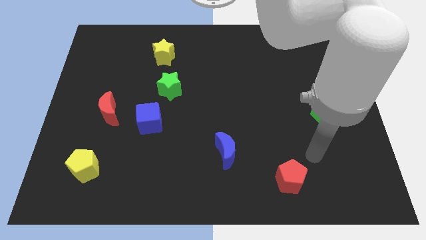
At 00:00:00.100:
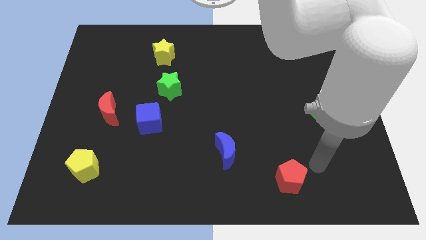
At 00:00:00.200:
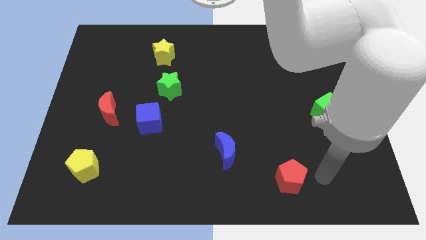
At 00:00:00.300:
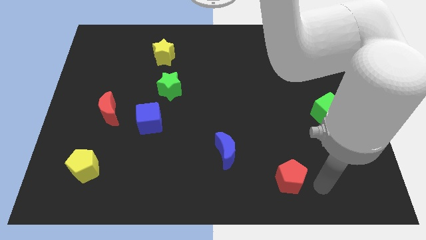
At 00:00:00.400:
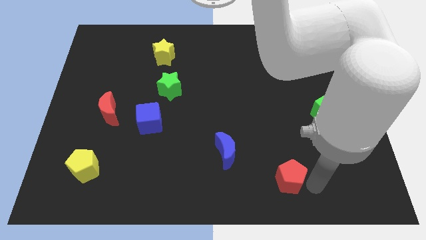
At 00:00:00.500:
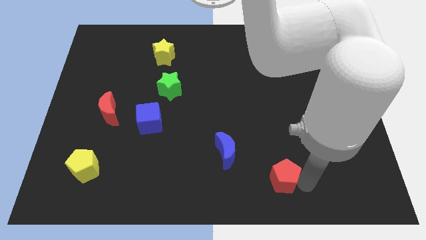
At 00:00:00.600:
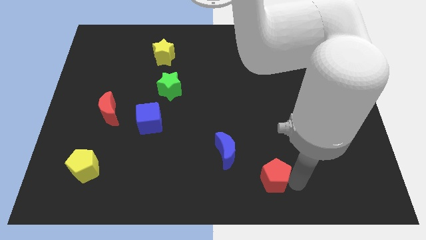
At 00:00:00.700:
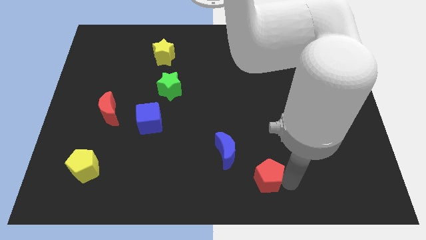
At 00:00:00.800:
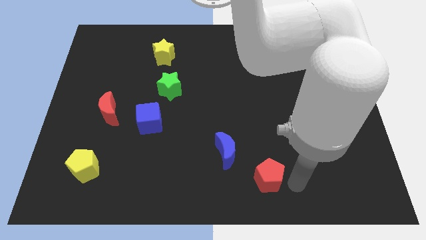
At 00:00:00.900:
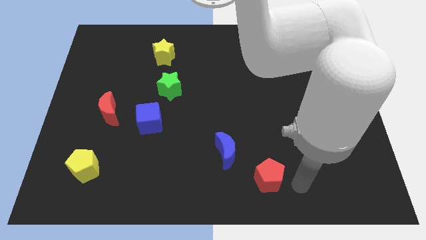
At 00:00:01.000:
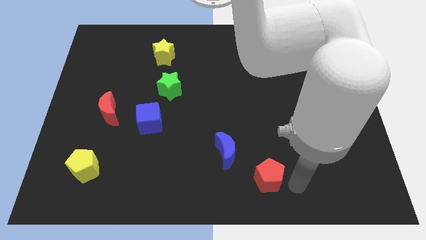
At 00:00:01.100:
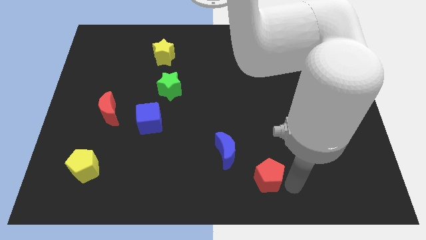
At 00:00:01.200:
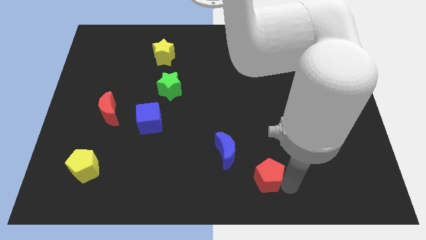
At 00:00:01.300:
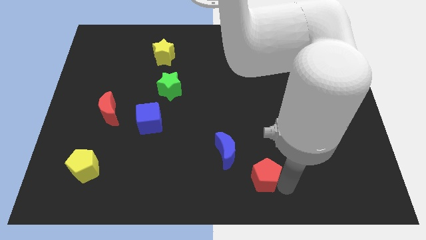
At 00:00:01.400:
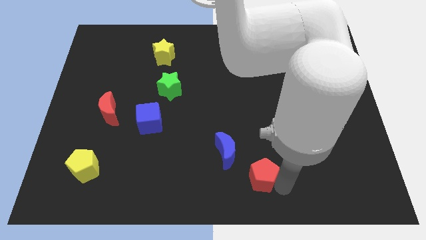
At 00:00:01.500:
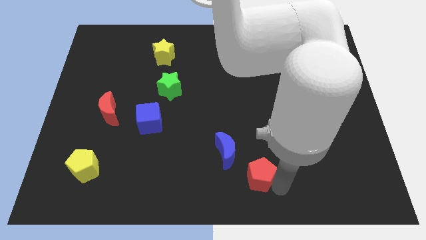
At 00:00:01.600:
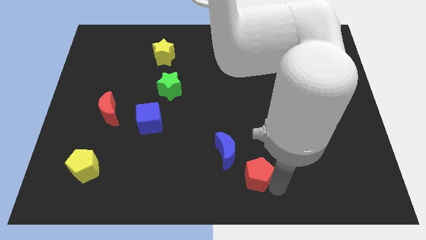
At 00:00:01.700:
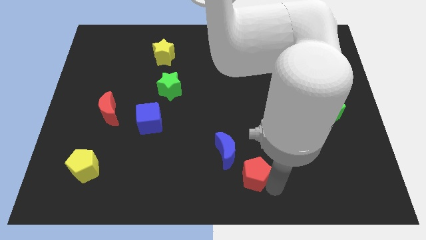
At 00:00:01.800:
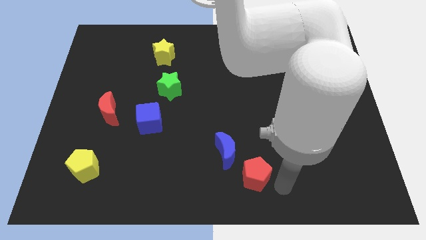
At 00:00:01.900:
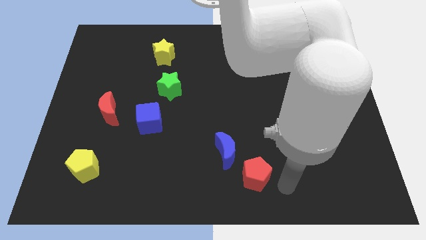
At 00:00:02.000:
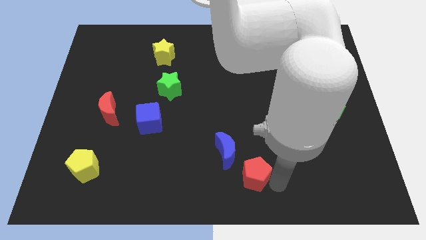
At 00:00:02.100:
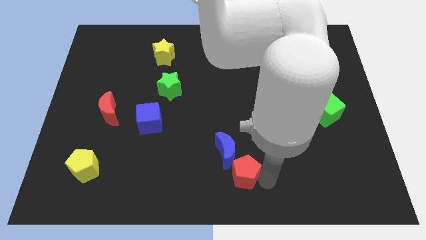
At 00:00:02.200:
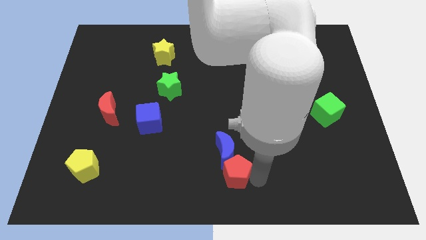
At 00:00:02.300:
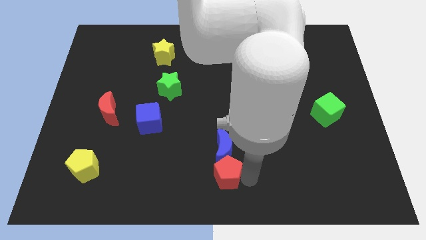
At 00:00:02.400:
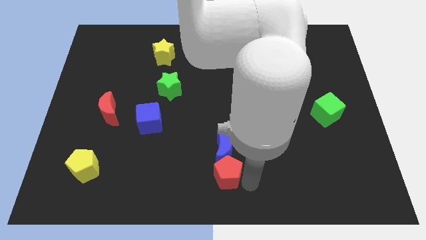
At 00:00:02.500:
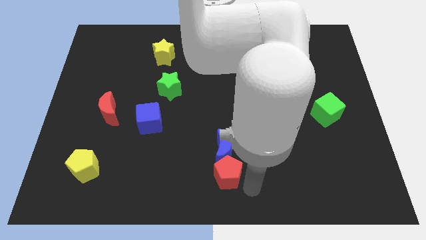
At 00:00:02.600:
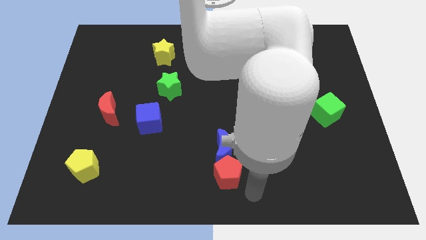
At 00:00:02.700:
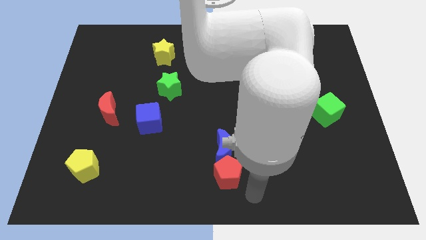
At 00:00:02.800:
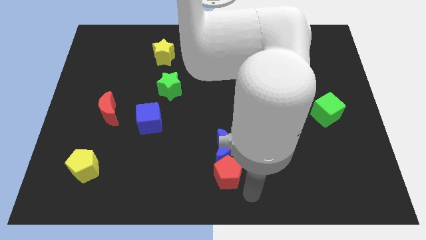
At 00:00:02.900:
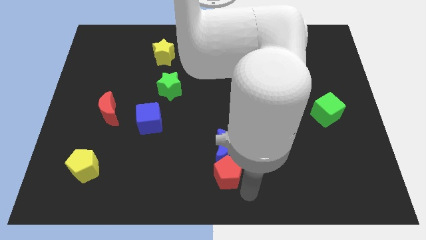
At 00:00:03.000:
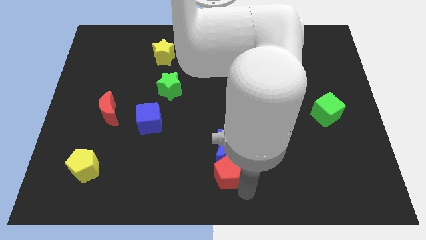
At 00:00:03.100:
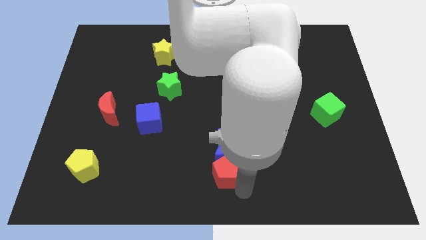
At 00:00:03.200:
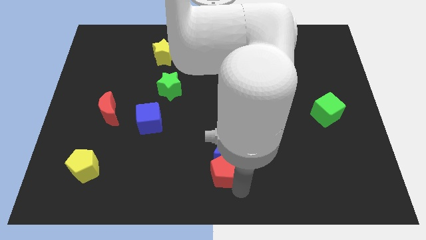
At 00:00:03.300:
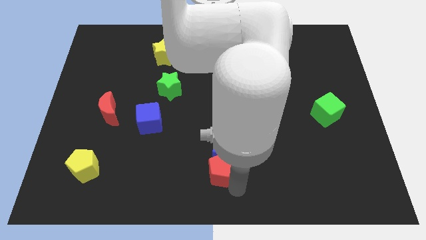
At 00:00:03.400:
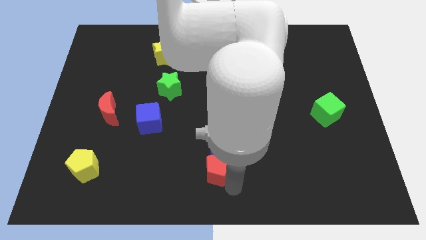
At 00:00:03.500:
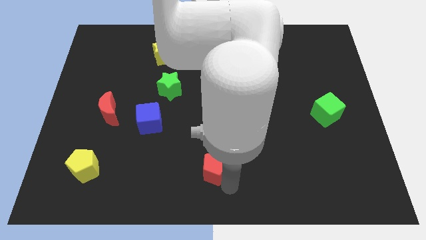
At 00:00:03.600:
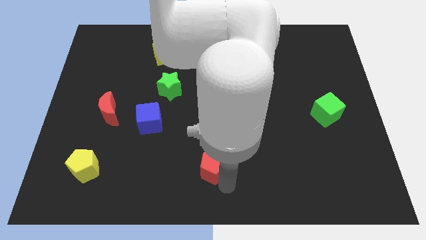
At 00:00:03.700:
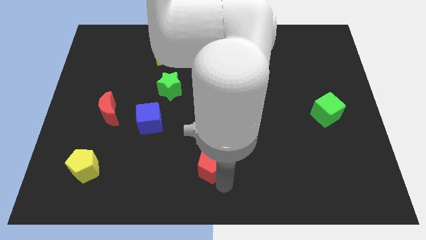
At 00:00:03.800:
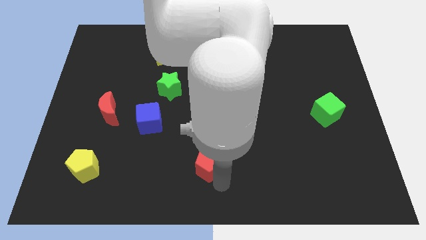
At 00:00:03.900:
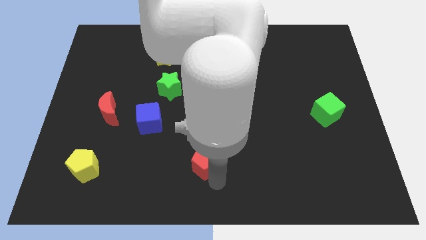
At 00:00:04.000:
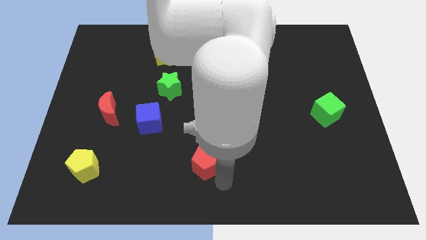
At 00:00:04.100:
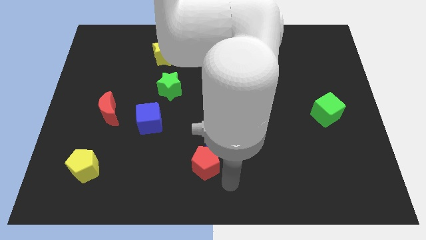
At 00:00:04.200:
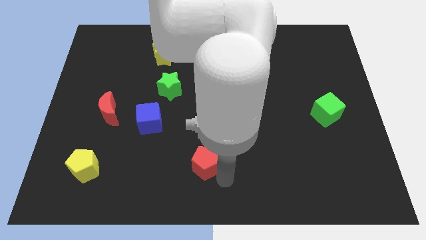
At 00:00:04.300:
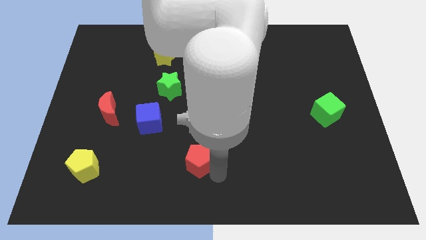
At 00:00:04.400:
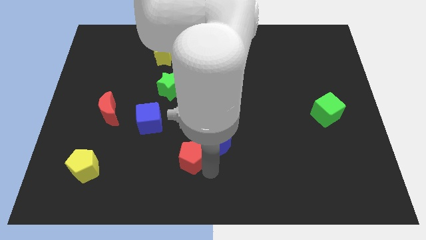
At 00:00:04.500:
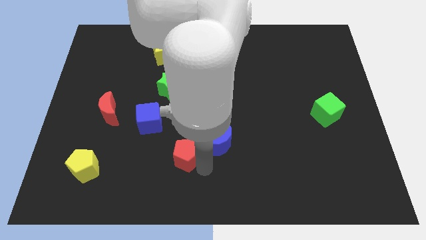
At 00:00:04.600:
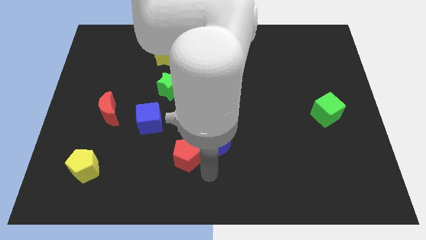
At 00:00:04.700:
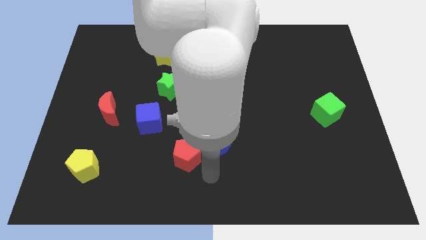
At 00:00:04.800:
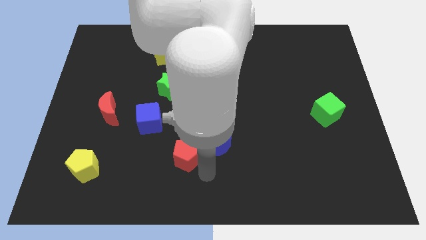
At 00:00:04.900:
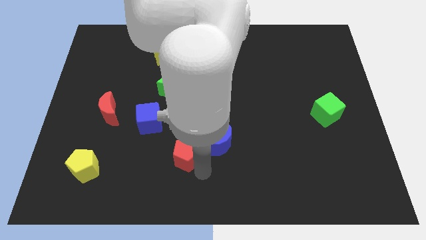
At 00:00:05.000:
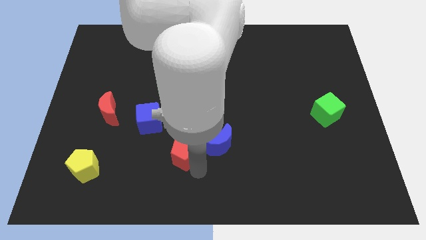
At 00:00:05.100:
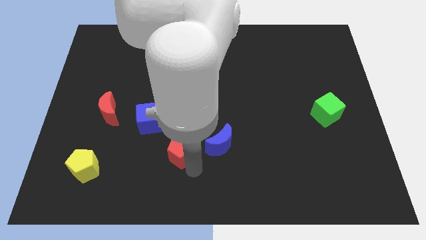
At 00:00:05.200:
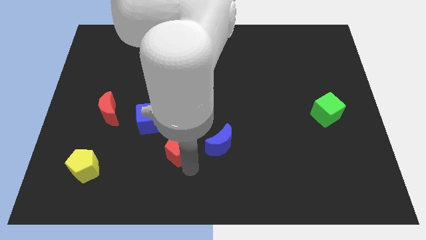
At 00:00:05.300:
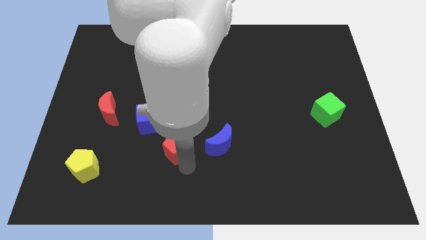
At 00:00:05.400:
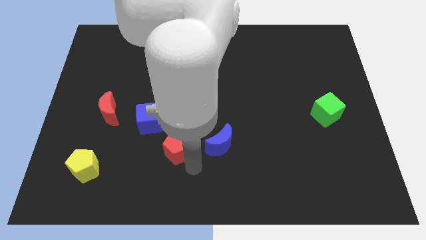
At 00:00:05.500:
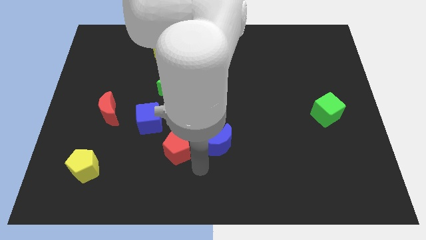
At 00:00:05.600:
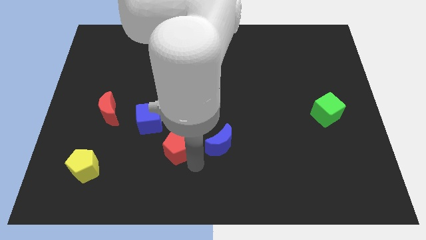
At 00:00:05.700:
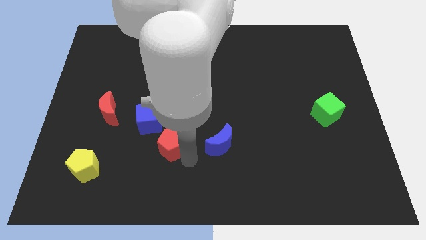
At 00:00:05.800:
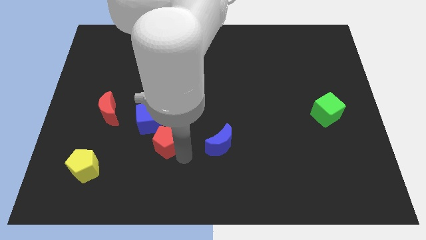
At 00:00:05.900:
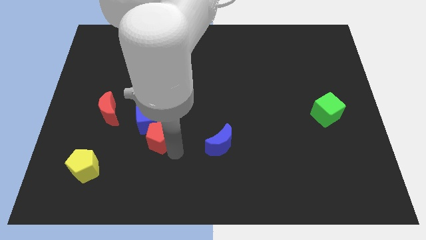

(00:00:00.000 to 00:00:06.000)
move the red pentagon towards the blue cube

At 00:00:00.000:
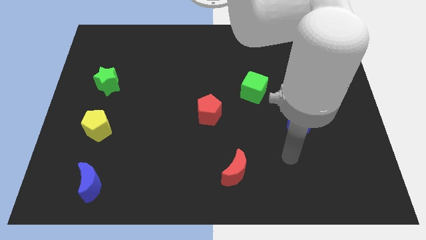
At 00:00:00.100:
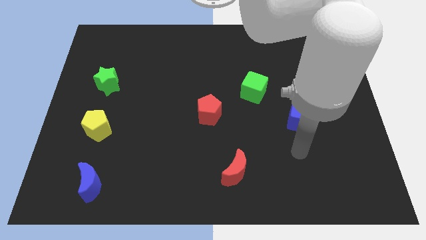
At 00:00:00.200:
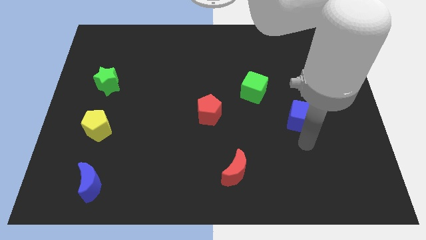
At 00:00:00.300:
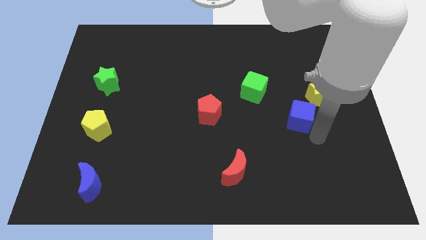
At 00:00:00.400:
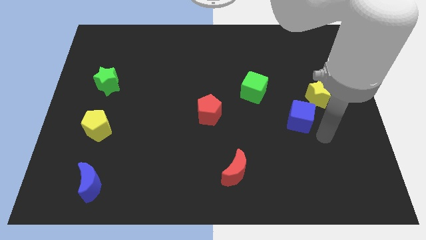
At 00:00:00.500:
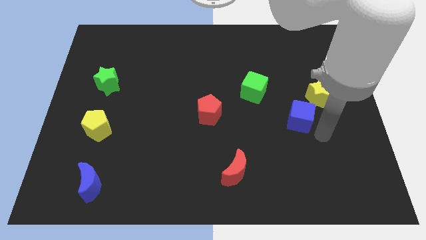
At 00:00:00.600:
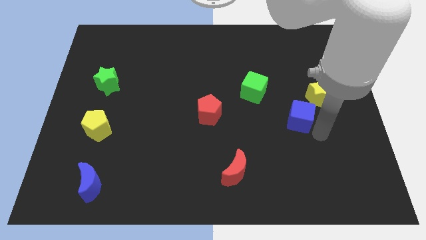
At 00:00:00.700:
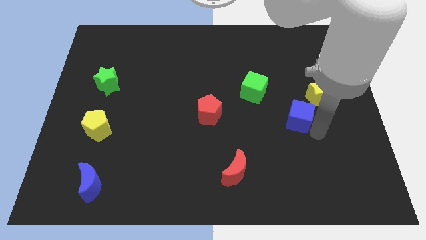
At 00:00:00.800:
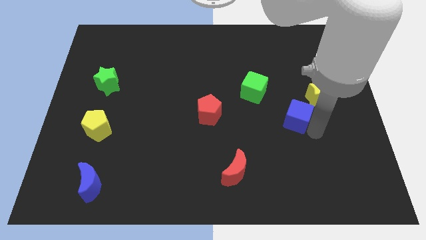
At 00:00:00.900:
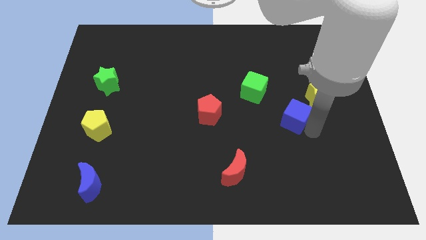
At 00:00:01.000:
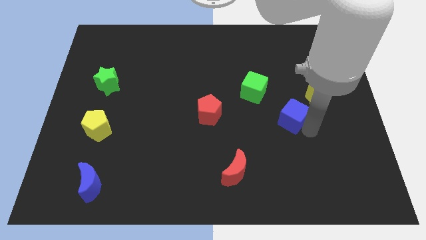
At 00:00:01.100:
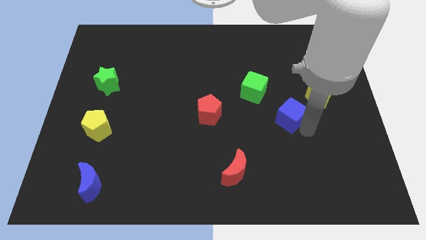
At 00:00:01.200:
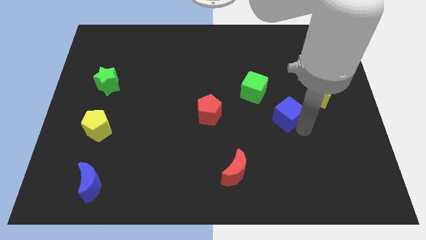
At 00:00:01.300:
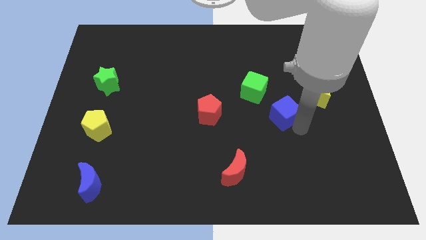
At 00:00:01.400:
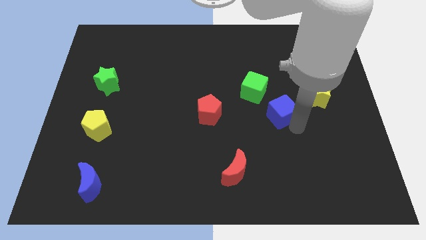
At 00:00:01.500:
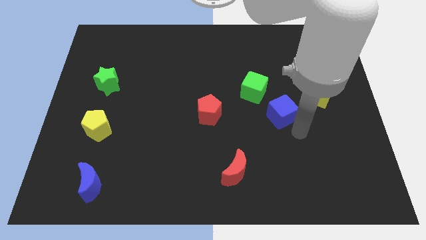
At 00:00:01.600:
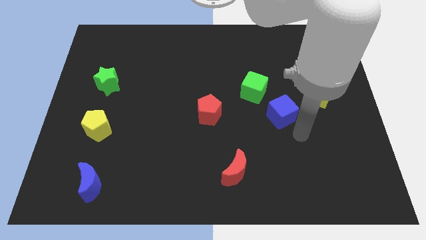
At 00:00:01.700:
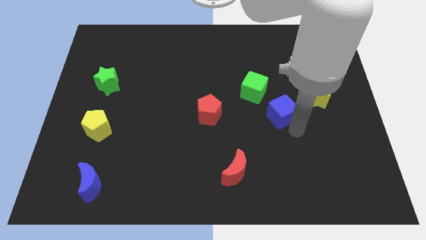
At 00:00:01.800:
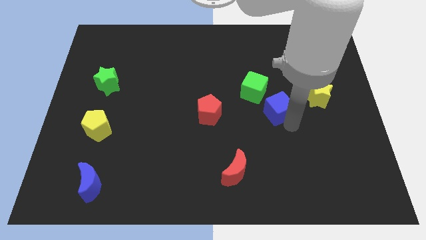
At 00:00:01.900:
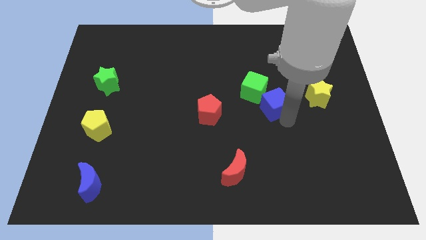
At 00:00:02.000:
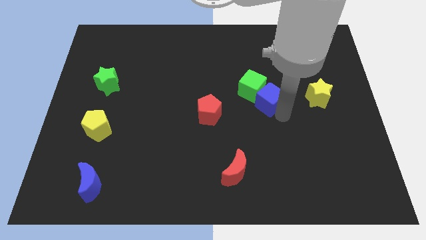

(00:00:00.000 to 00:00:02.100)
put the blue cube close to the green cube
